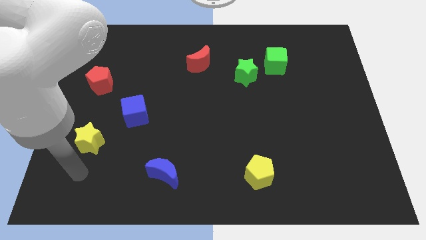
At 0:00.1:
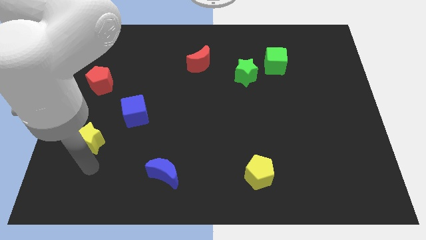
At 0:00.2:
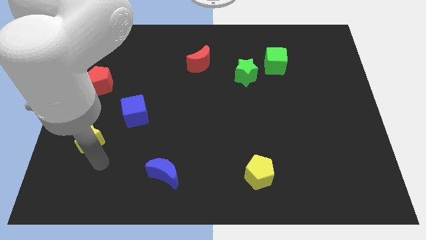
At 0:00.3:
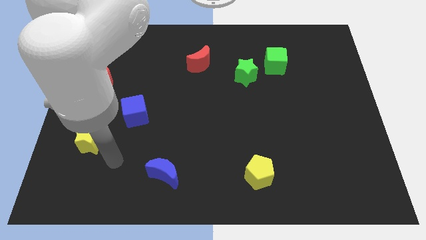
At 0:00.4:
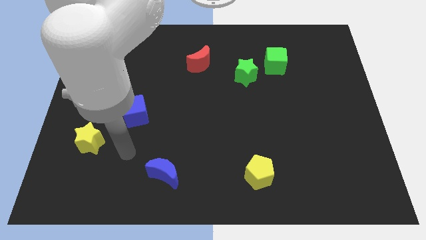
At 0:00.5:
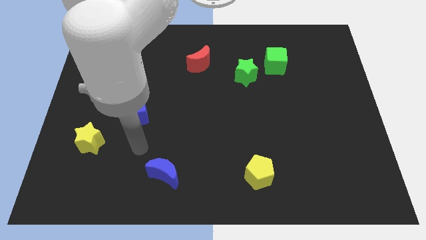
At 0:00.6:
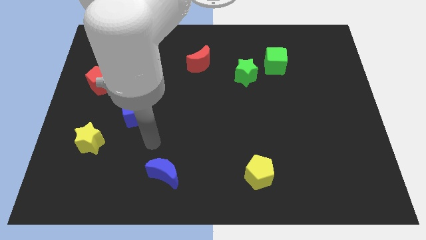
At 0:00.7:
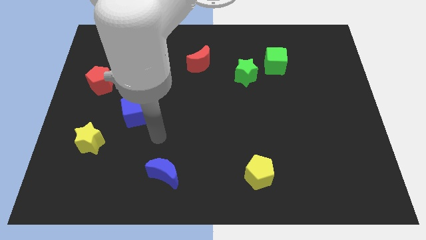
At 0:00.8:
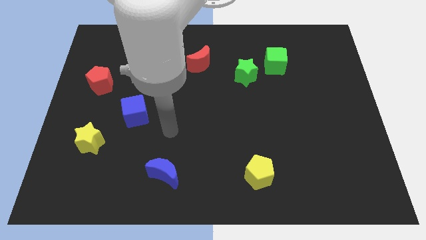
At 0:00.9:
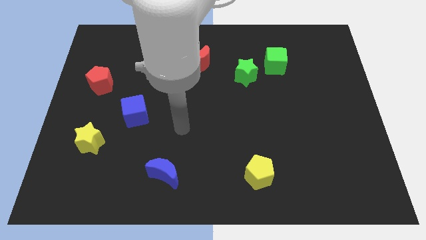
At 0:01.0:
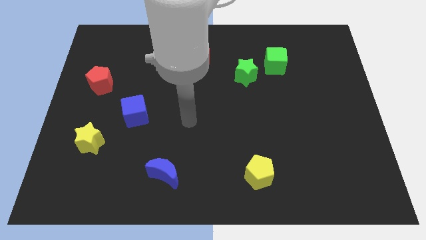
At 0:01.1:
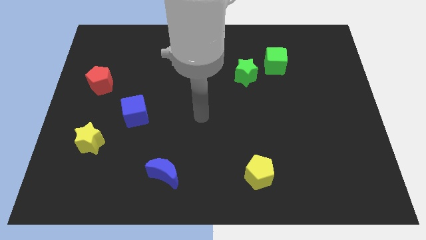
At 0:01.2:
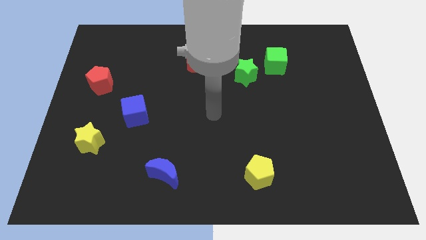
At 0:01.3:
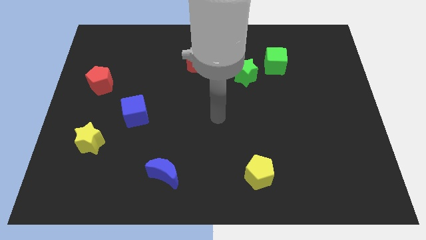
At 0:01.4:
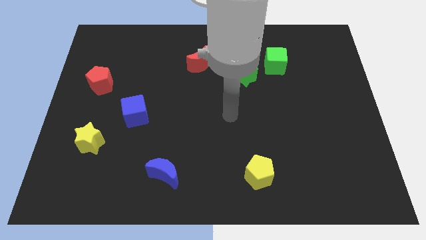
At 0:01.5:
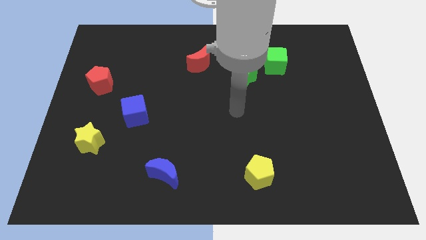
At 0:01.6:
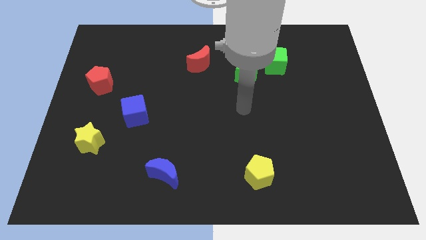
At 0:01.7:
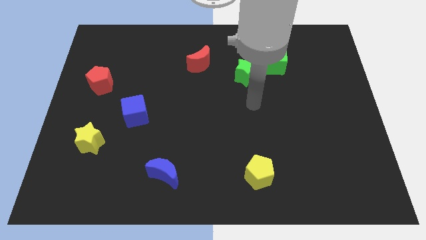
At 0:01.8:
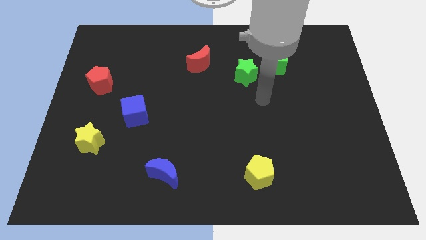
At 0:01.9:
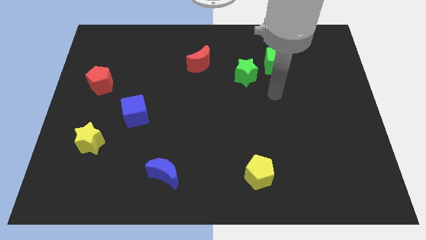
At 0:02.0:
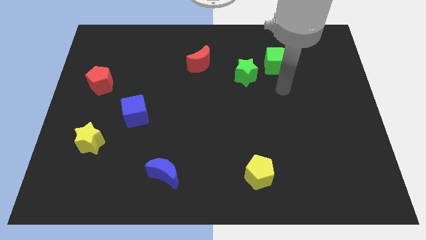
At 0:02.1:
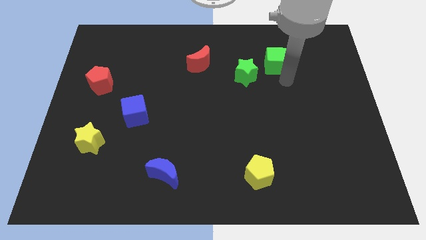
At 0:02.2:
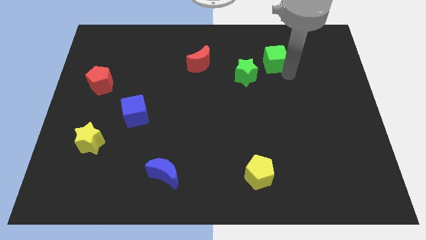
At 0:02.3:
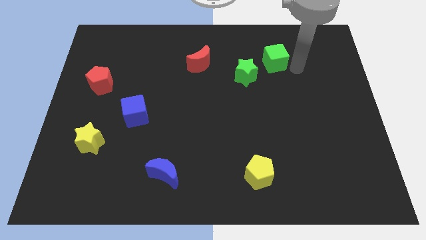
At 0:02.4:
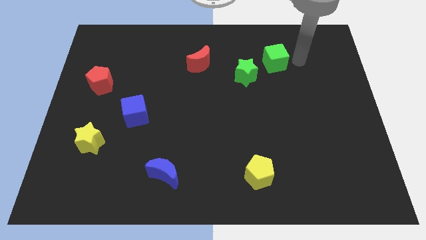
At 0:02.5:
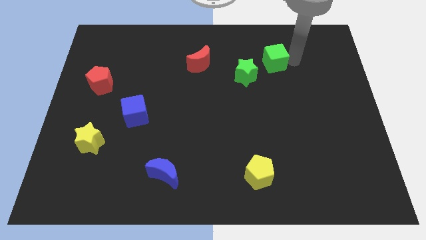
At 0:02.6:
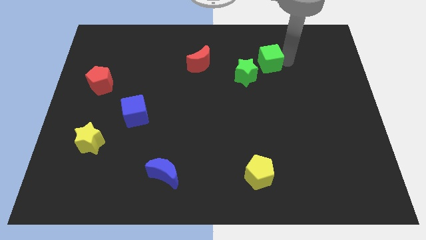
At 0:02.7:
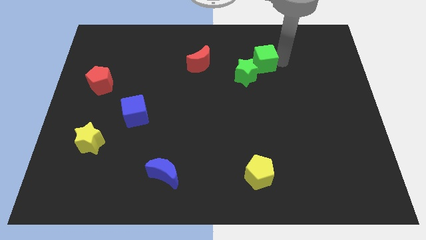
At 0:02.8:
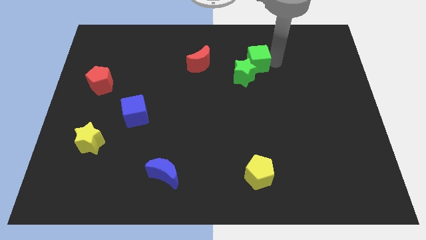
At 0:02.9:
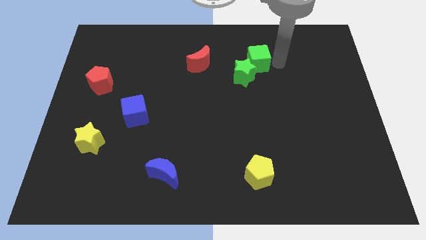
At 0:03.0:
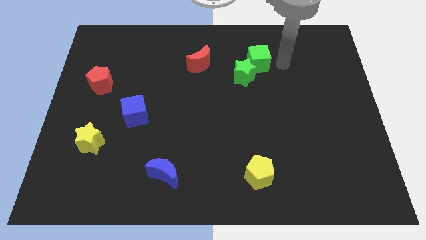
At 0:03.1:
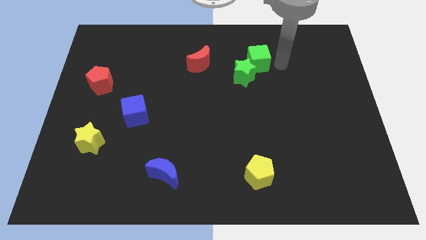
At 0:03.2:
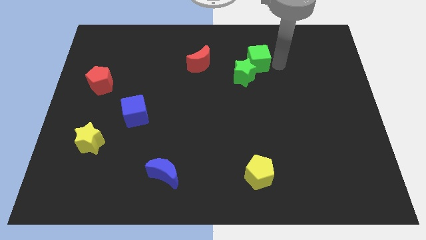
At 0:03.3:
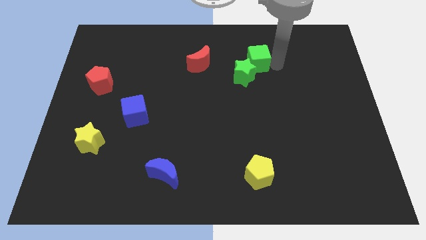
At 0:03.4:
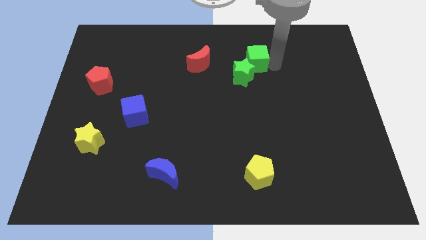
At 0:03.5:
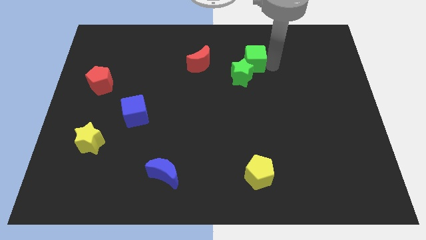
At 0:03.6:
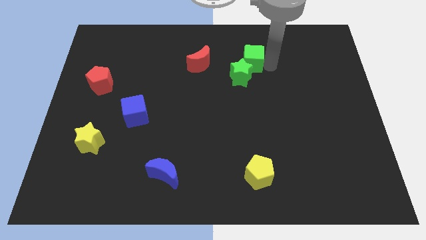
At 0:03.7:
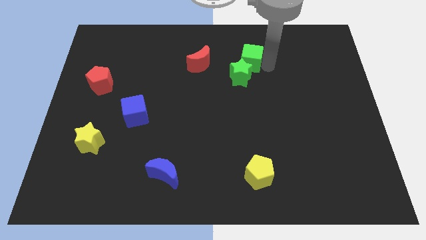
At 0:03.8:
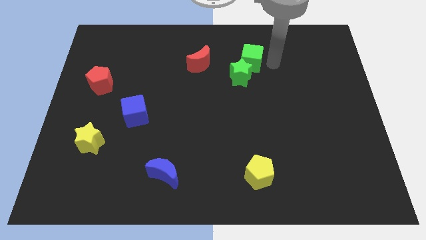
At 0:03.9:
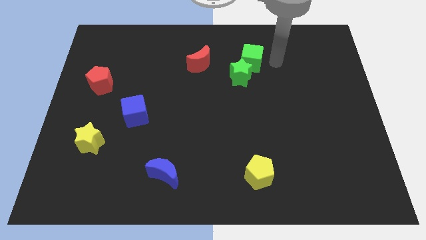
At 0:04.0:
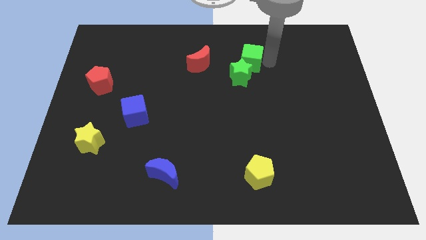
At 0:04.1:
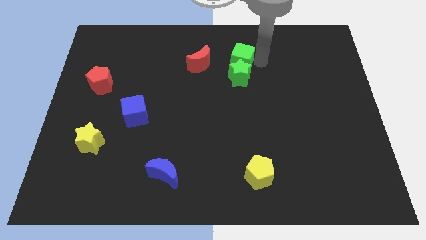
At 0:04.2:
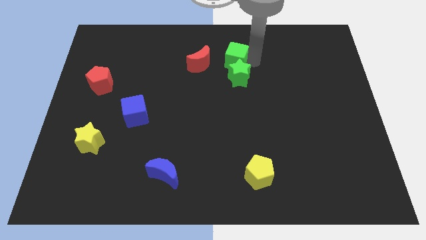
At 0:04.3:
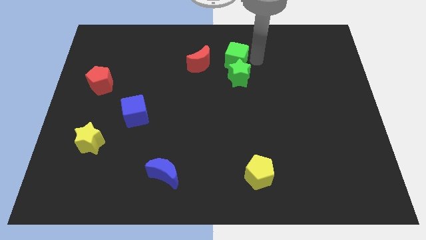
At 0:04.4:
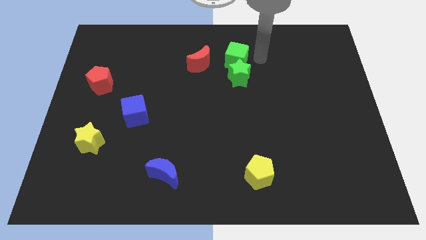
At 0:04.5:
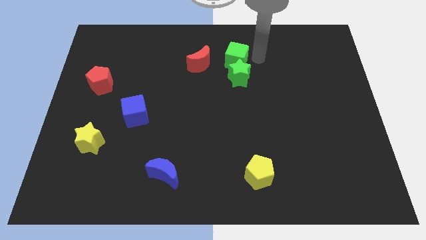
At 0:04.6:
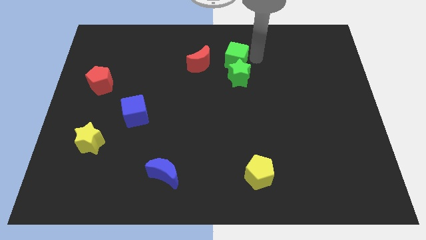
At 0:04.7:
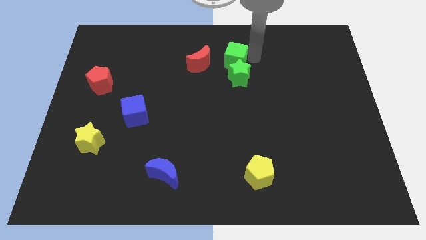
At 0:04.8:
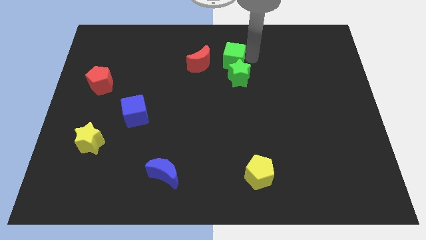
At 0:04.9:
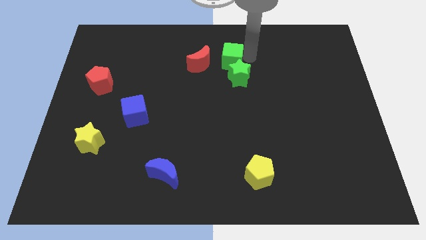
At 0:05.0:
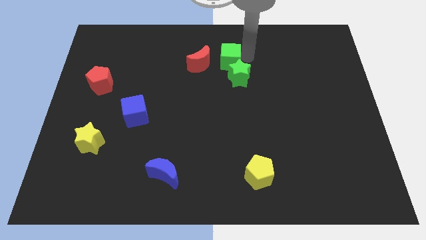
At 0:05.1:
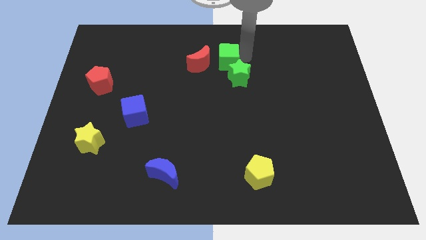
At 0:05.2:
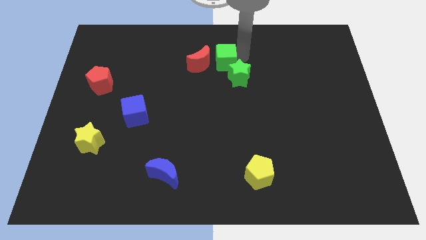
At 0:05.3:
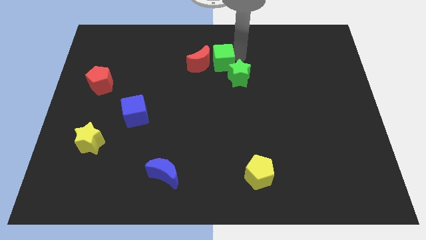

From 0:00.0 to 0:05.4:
slide the green cube to the red moon

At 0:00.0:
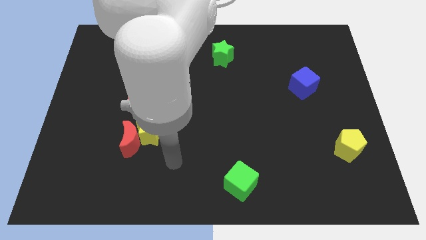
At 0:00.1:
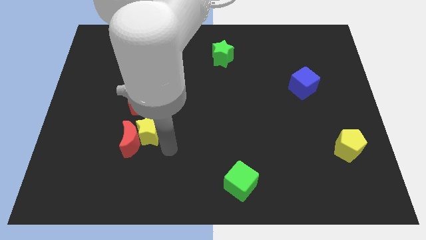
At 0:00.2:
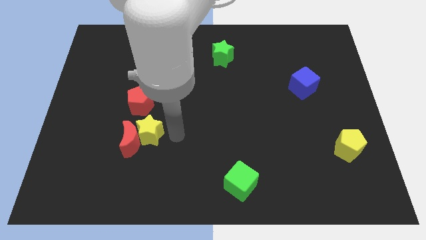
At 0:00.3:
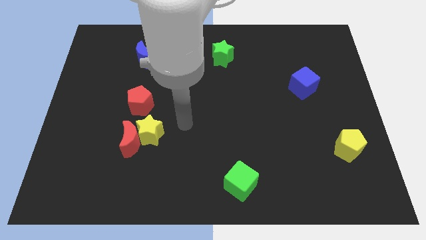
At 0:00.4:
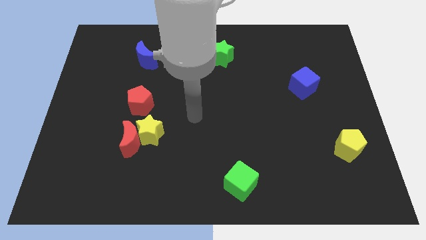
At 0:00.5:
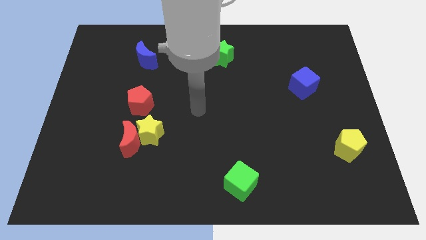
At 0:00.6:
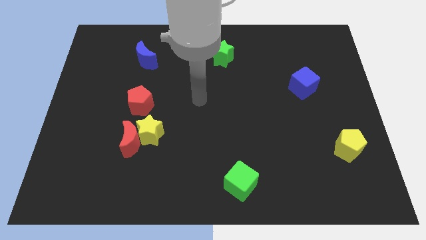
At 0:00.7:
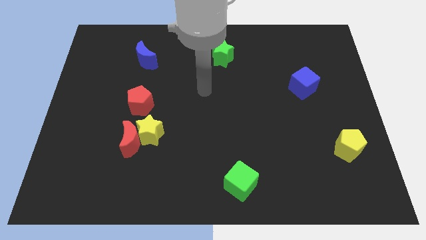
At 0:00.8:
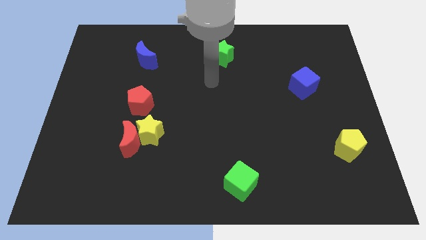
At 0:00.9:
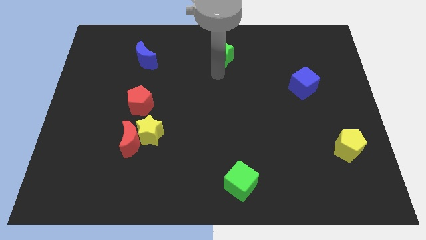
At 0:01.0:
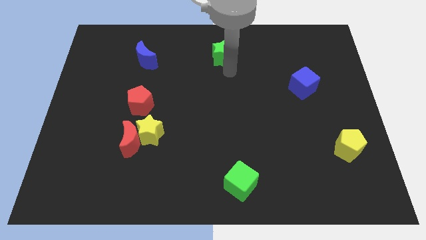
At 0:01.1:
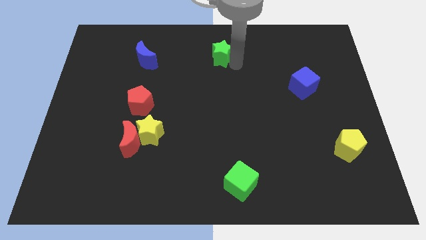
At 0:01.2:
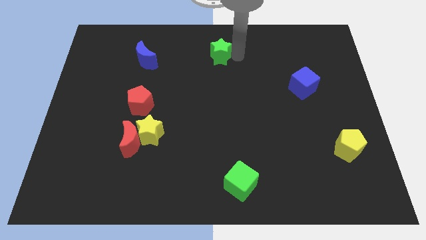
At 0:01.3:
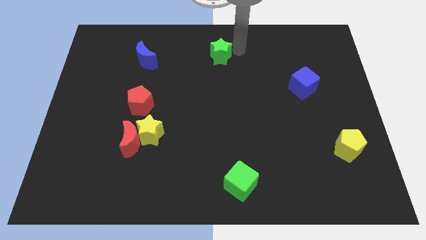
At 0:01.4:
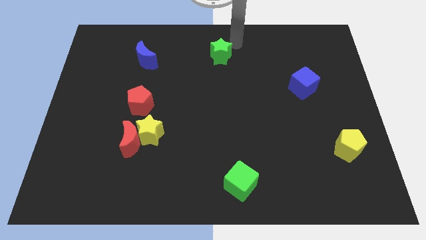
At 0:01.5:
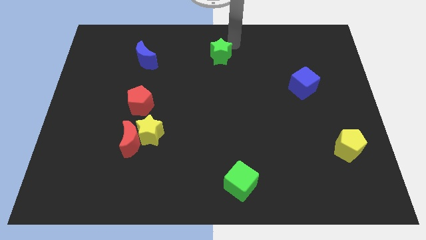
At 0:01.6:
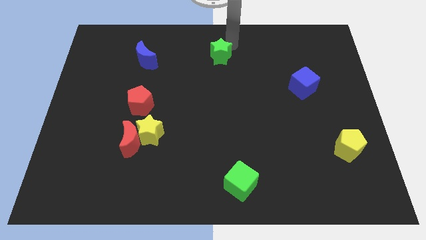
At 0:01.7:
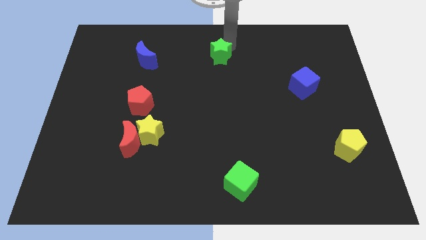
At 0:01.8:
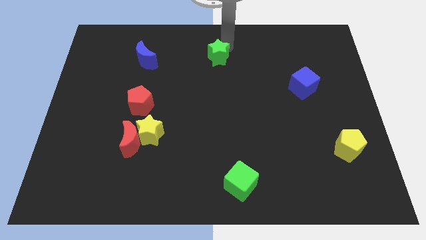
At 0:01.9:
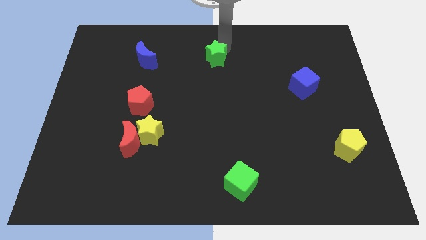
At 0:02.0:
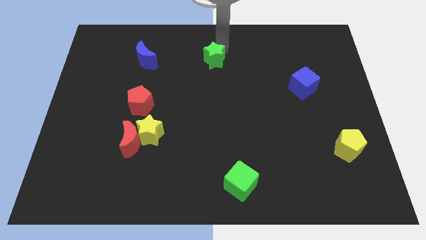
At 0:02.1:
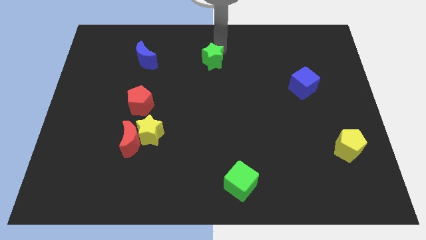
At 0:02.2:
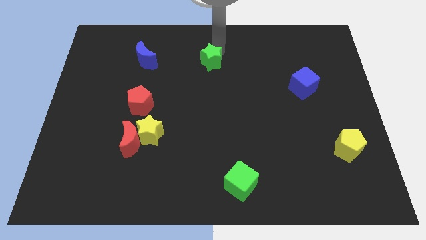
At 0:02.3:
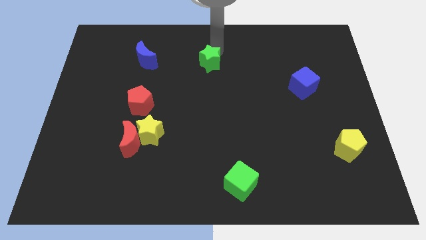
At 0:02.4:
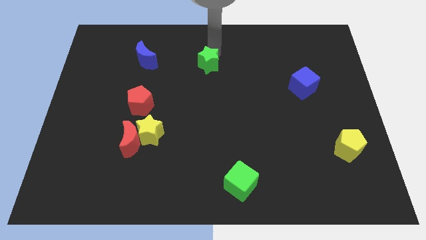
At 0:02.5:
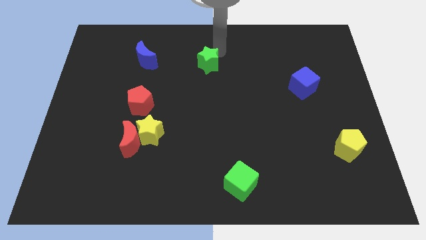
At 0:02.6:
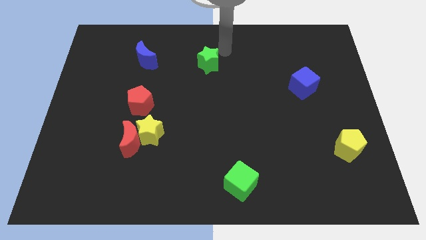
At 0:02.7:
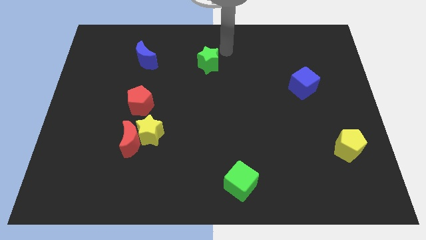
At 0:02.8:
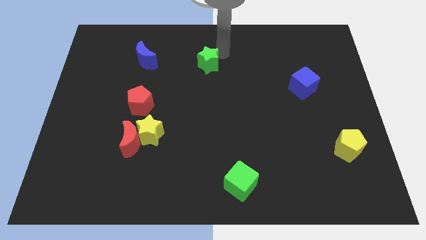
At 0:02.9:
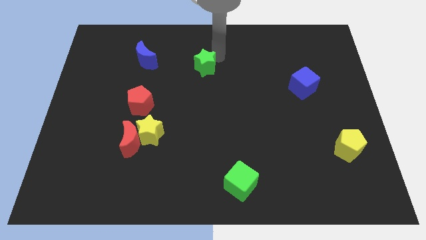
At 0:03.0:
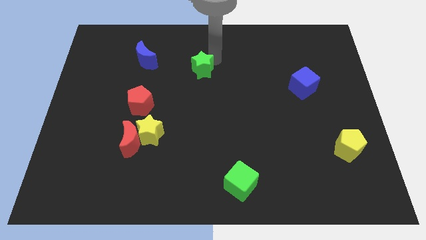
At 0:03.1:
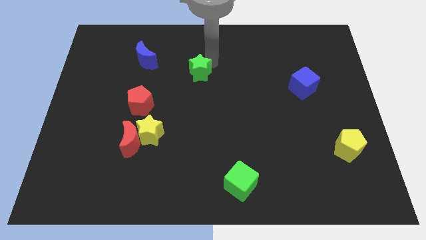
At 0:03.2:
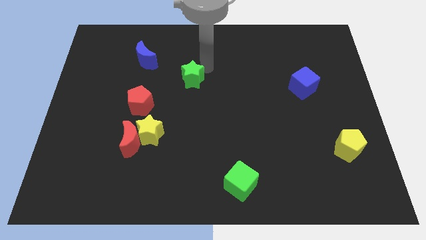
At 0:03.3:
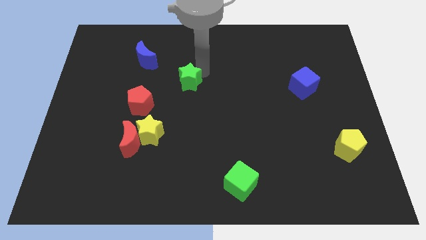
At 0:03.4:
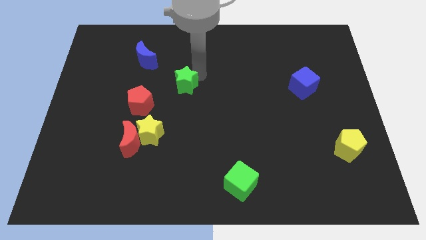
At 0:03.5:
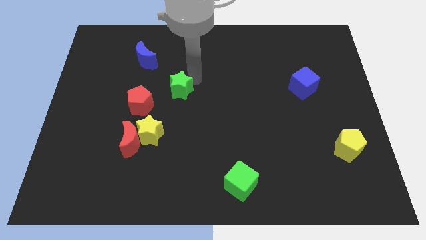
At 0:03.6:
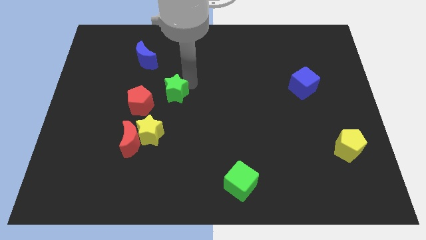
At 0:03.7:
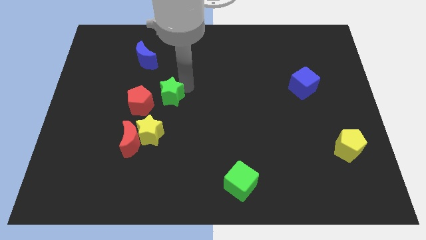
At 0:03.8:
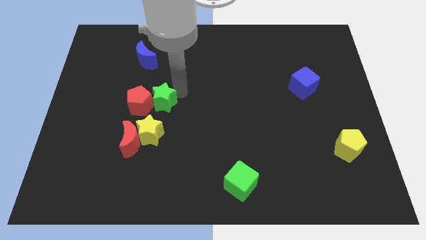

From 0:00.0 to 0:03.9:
push the green star next to the red pentagon
